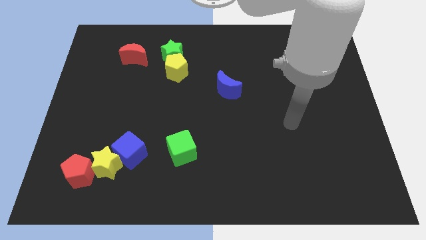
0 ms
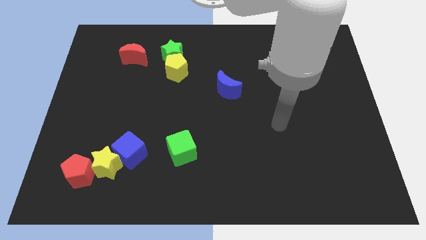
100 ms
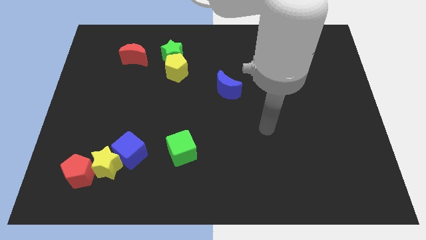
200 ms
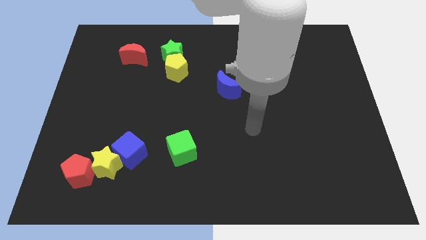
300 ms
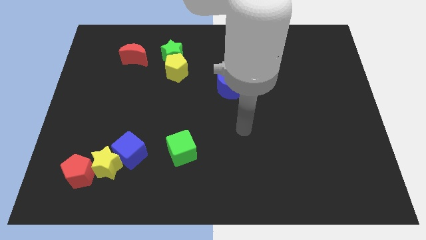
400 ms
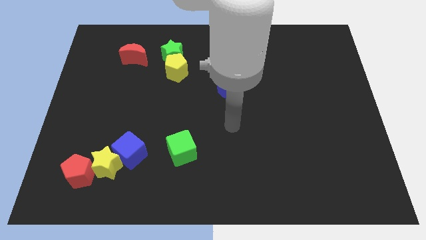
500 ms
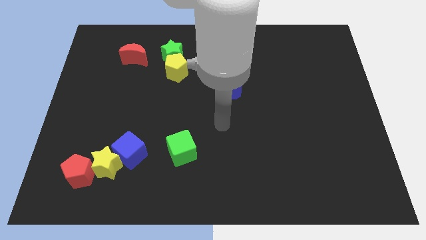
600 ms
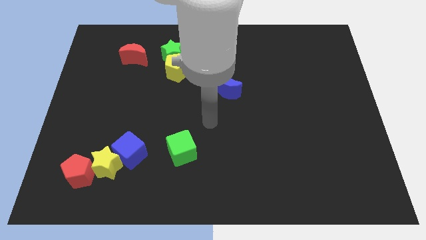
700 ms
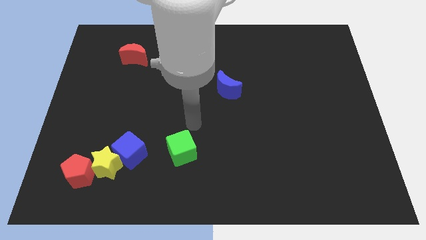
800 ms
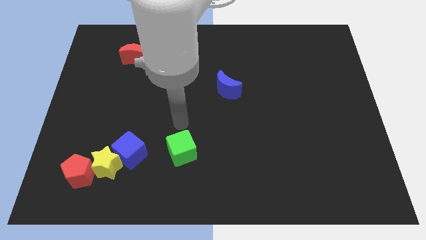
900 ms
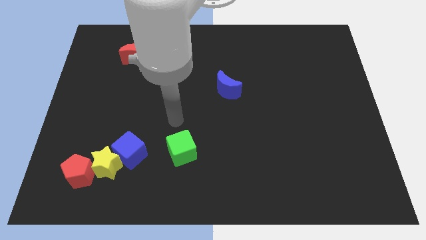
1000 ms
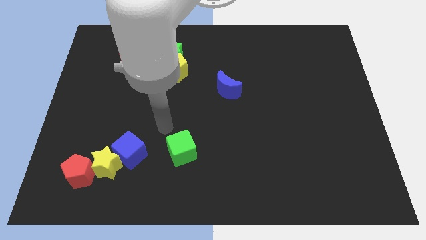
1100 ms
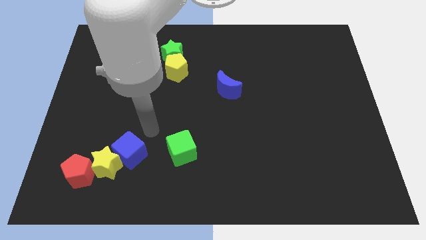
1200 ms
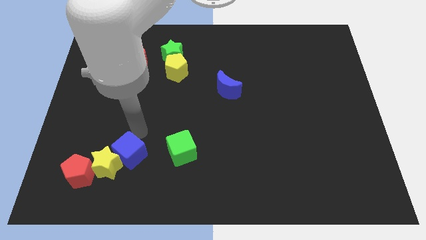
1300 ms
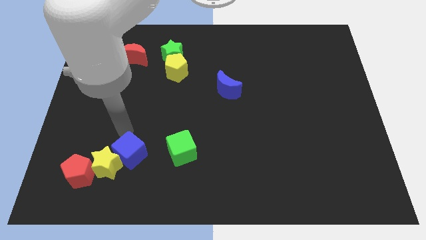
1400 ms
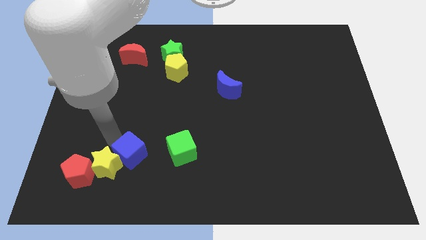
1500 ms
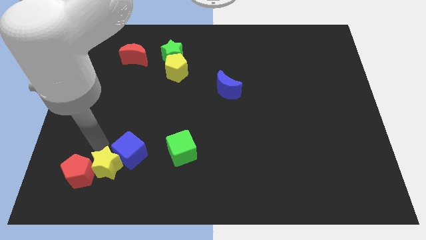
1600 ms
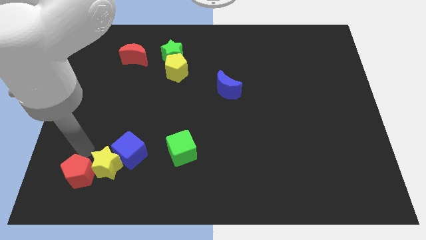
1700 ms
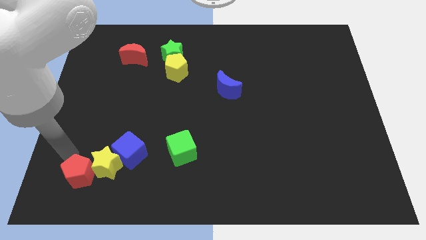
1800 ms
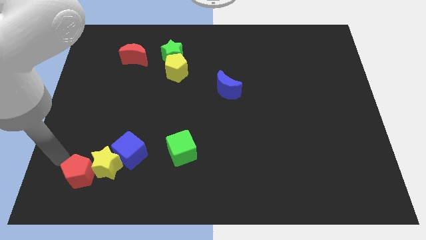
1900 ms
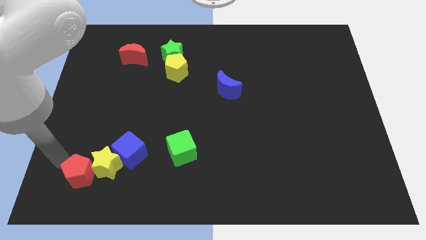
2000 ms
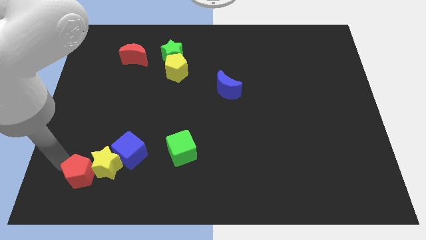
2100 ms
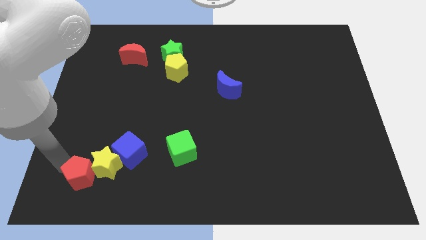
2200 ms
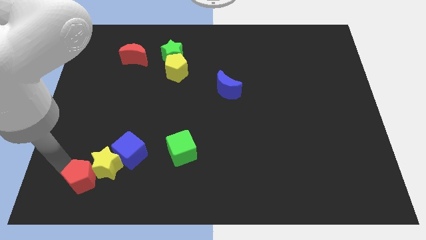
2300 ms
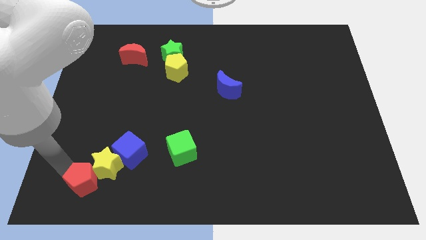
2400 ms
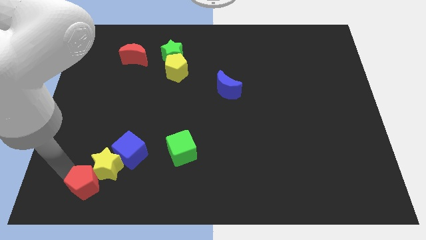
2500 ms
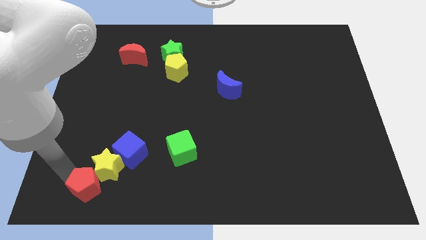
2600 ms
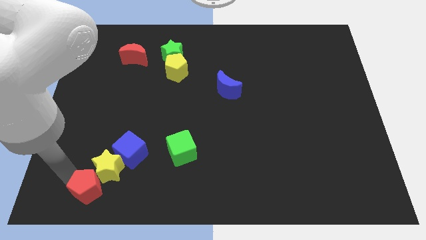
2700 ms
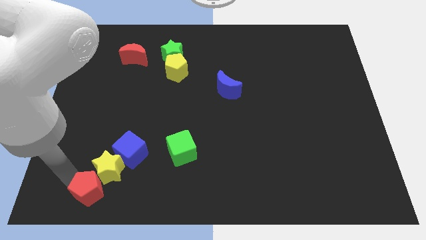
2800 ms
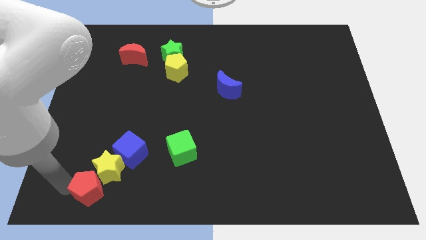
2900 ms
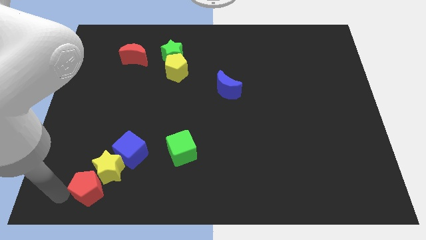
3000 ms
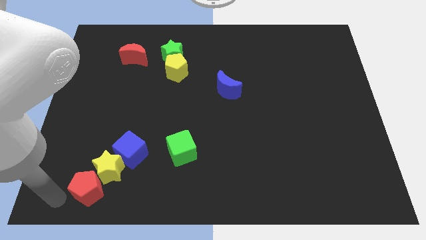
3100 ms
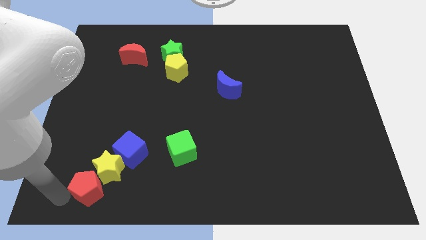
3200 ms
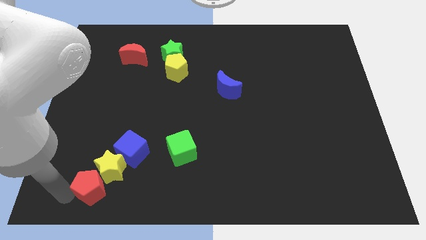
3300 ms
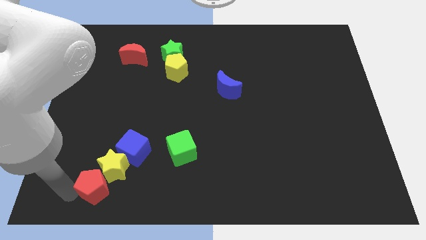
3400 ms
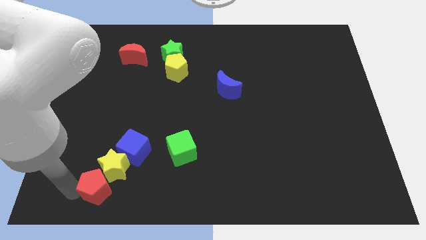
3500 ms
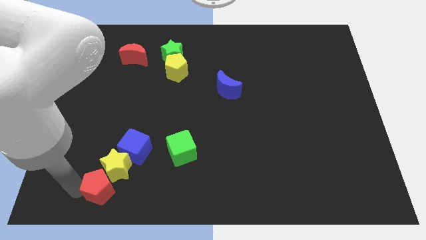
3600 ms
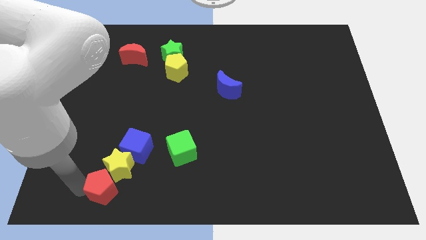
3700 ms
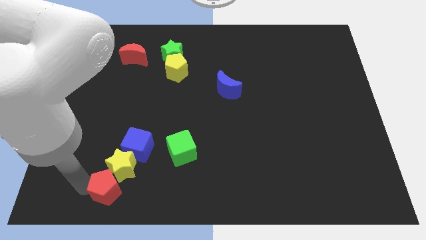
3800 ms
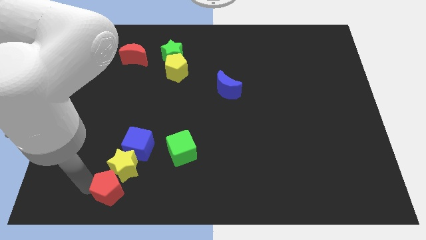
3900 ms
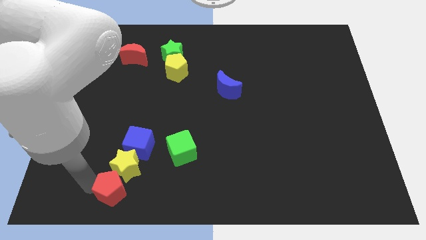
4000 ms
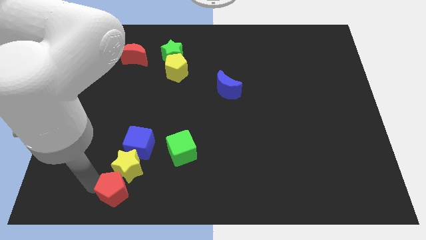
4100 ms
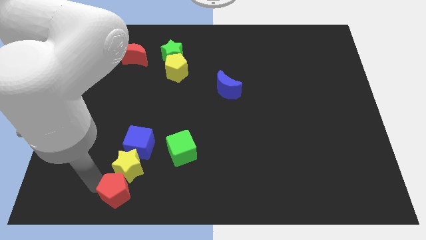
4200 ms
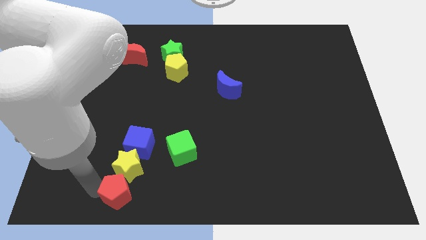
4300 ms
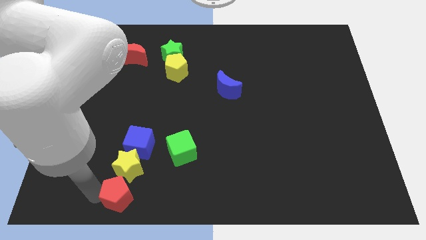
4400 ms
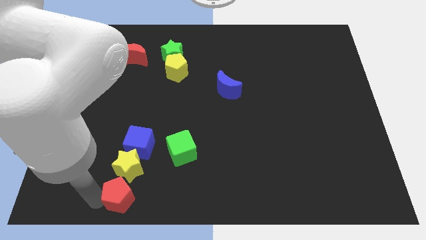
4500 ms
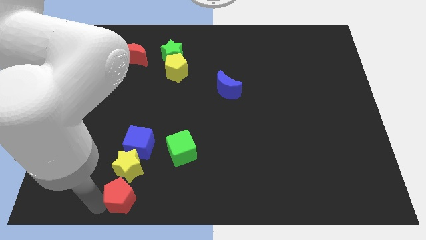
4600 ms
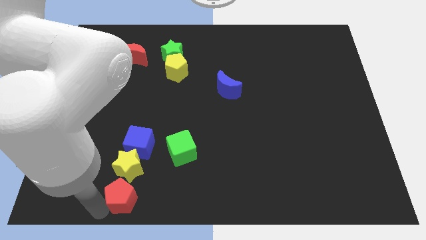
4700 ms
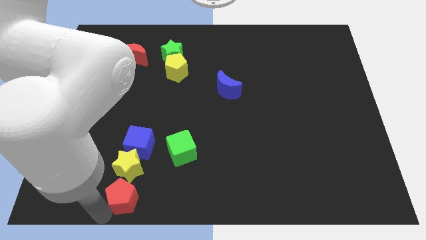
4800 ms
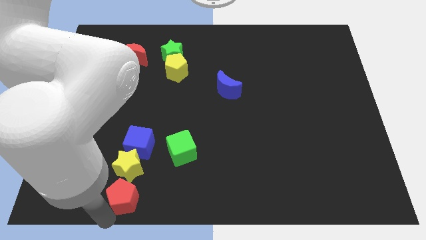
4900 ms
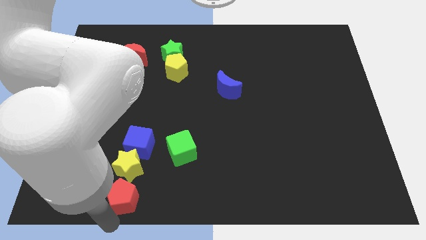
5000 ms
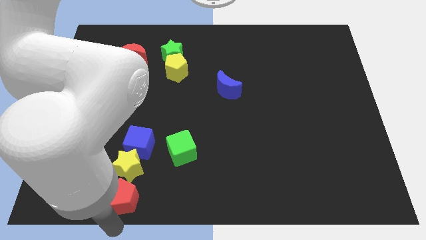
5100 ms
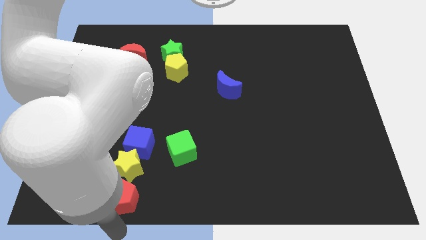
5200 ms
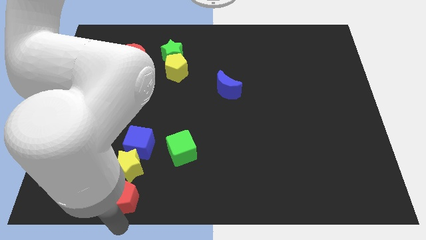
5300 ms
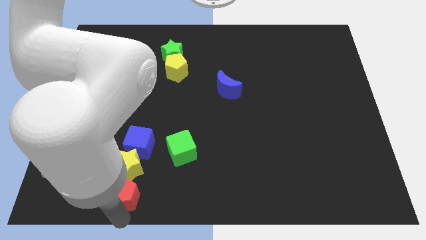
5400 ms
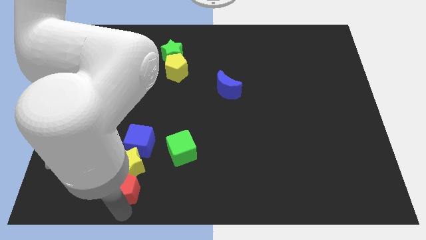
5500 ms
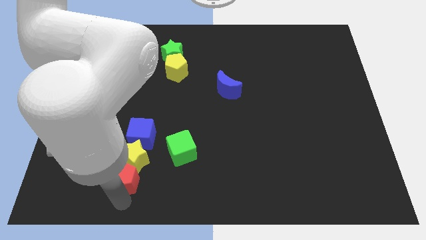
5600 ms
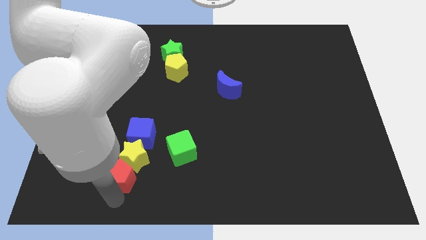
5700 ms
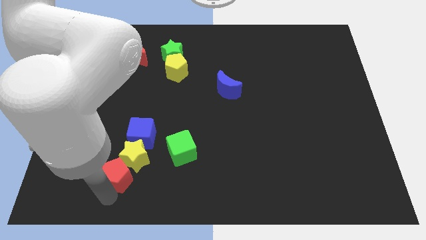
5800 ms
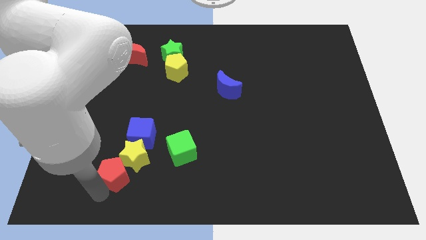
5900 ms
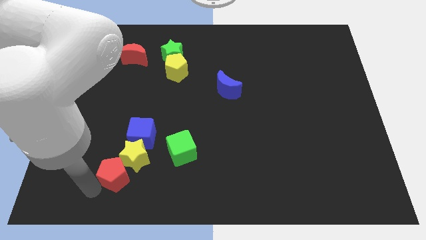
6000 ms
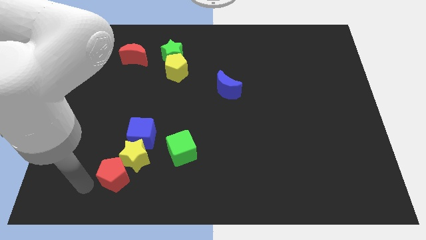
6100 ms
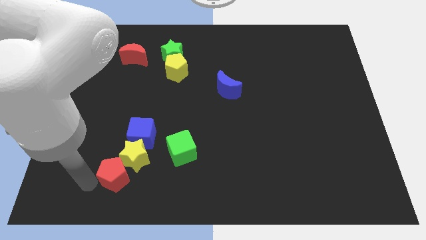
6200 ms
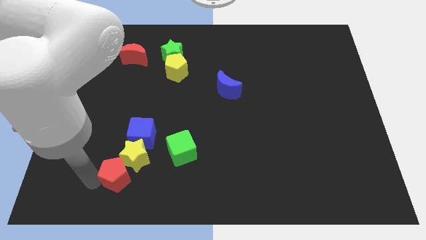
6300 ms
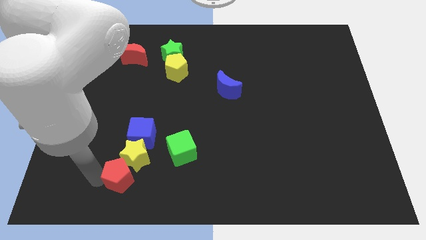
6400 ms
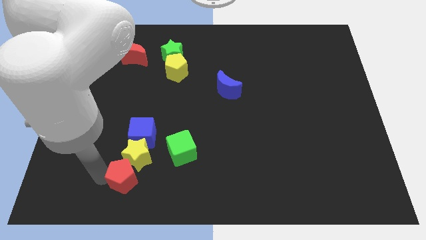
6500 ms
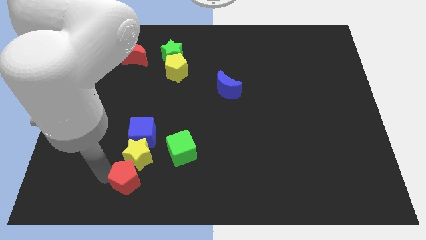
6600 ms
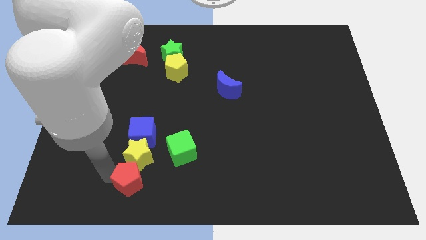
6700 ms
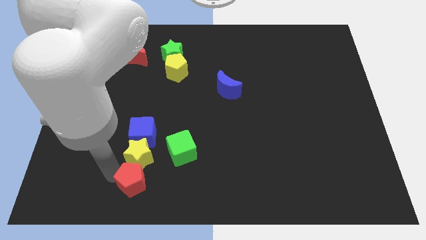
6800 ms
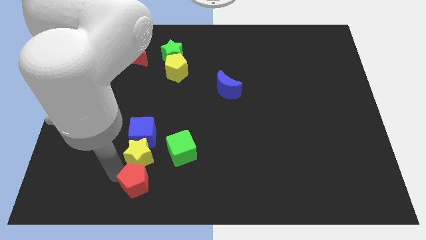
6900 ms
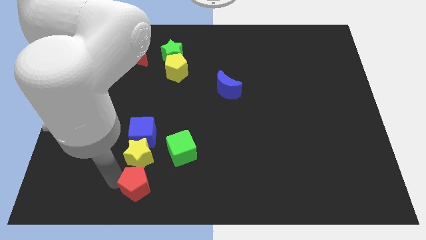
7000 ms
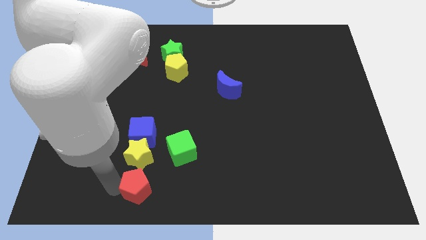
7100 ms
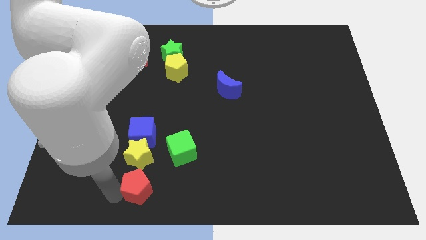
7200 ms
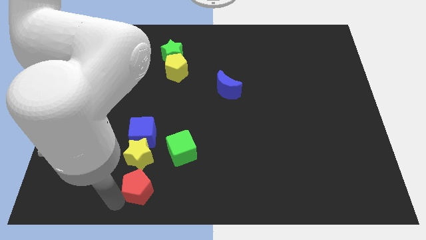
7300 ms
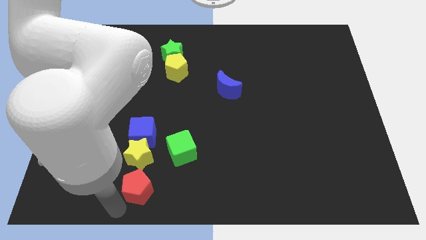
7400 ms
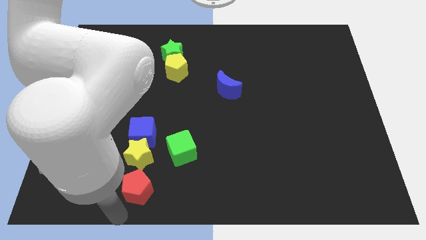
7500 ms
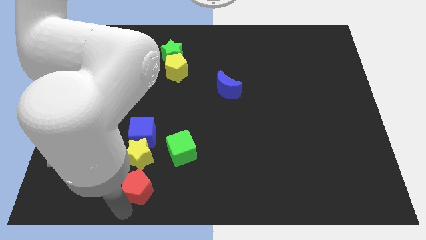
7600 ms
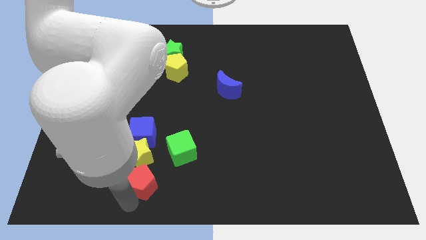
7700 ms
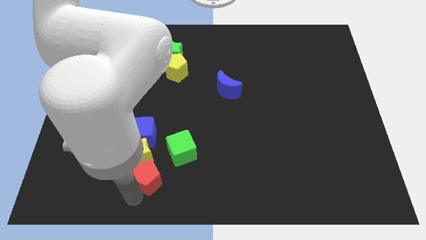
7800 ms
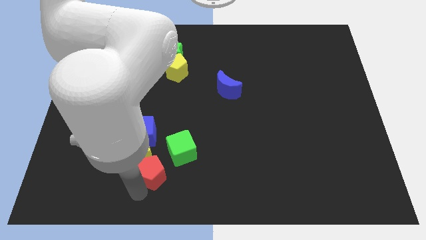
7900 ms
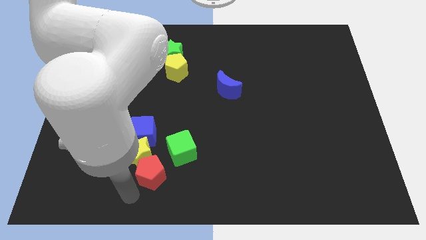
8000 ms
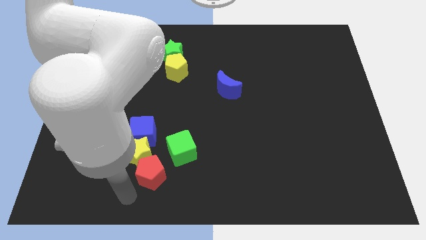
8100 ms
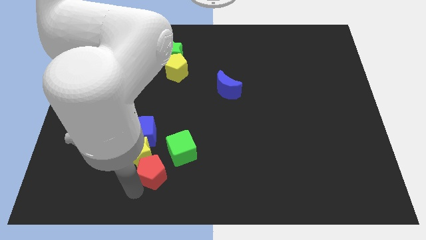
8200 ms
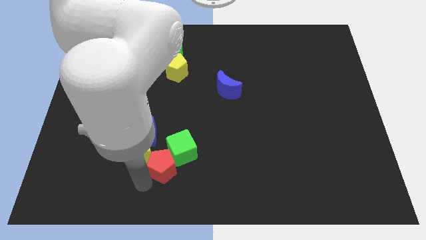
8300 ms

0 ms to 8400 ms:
slide the red pentagon towards the green cube
